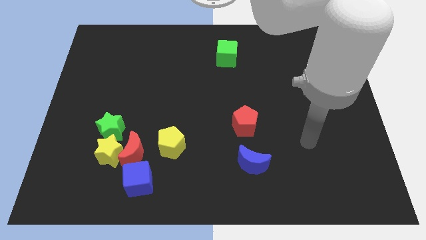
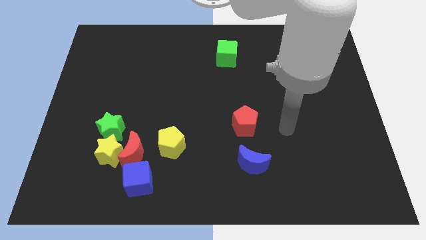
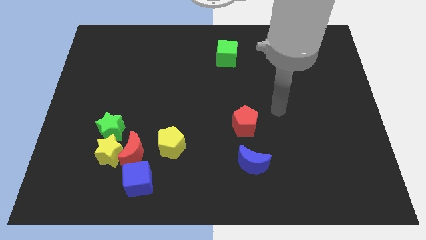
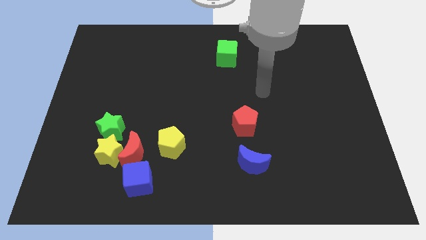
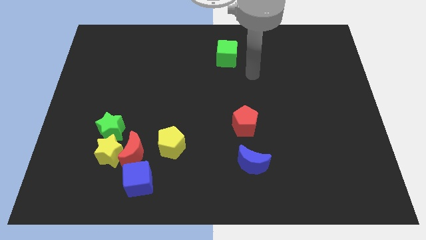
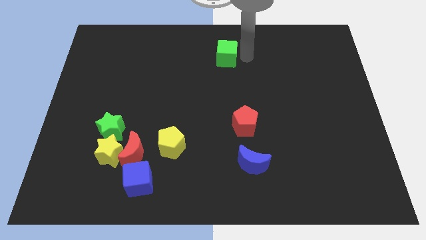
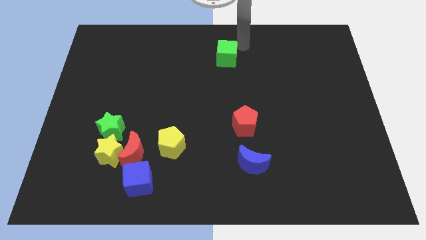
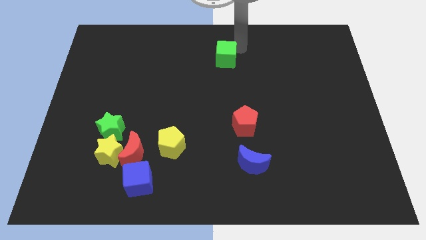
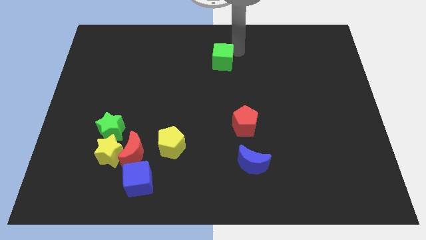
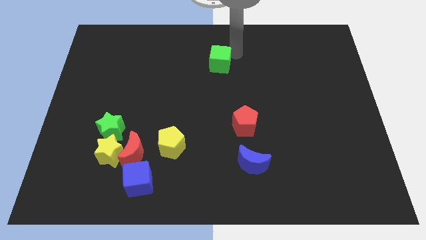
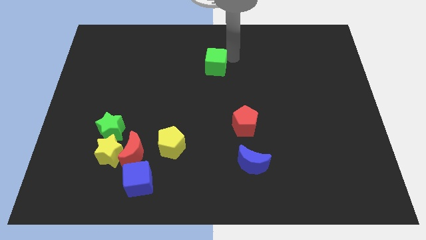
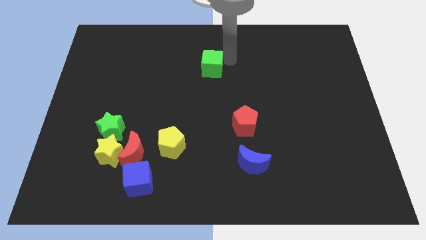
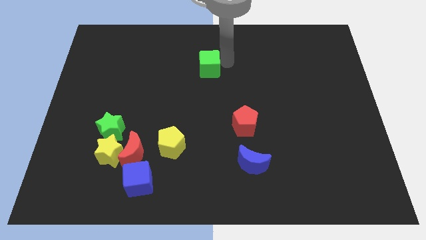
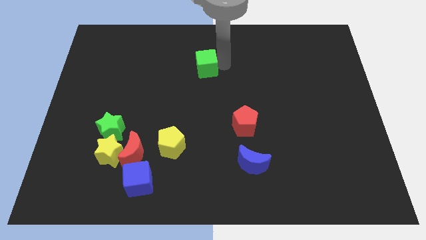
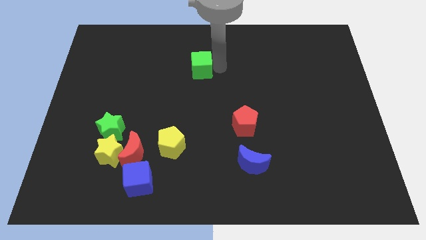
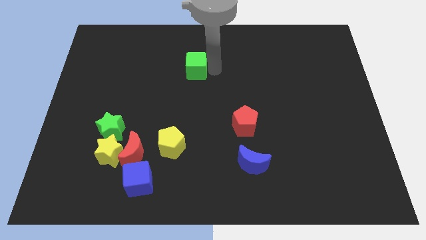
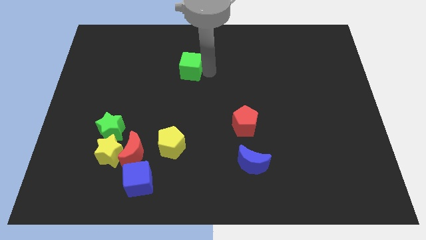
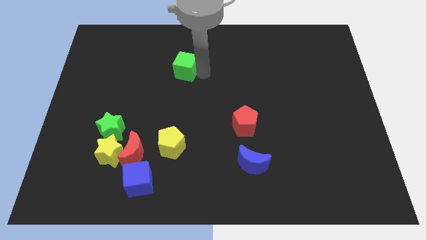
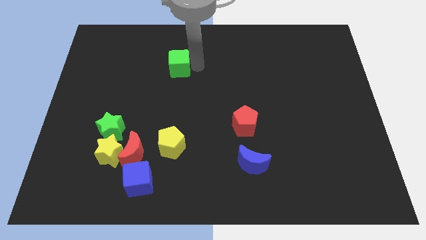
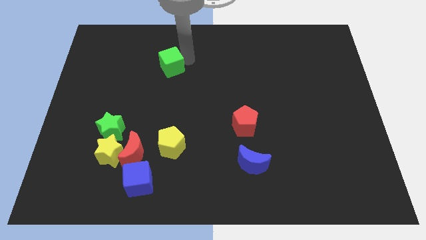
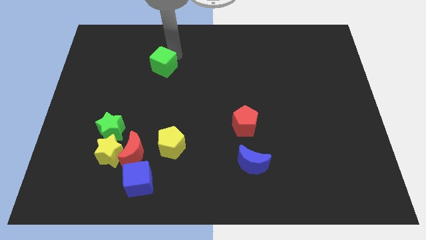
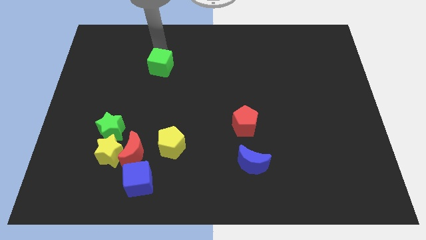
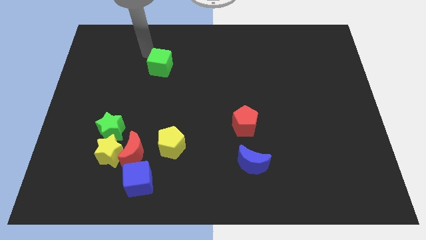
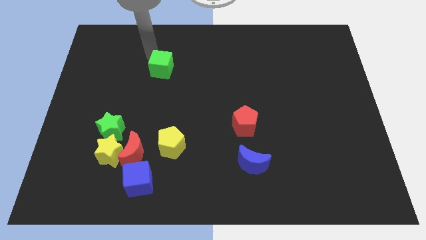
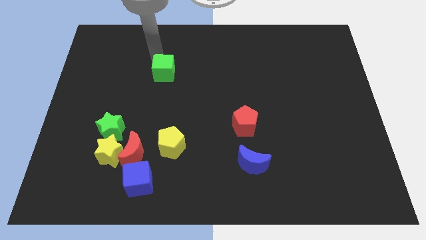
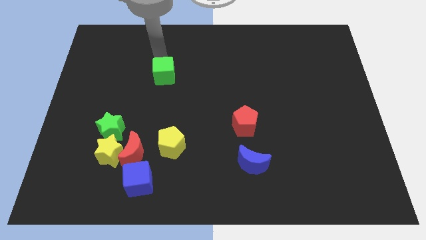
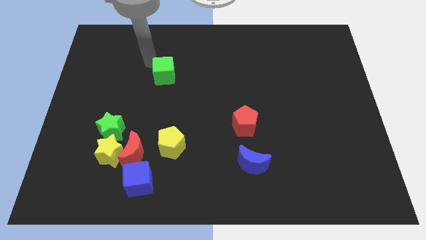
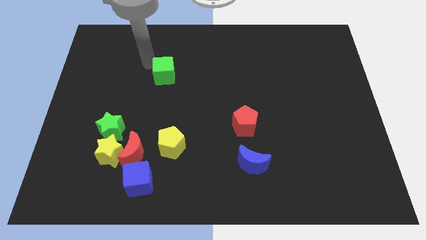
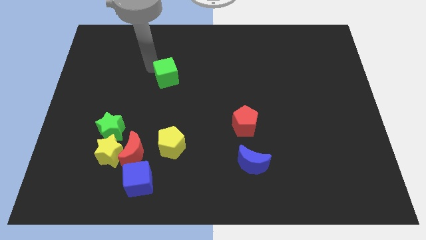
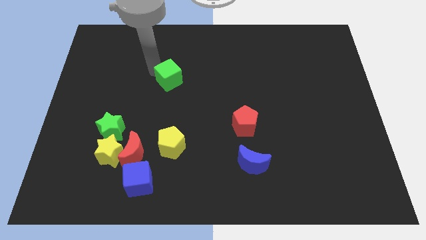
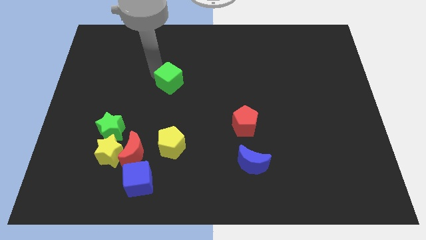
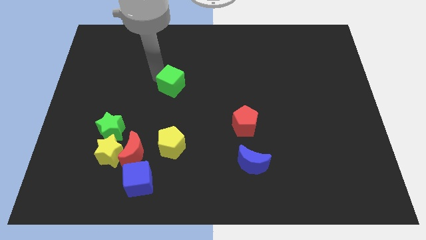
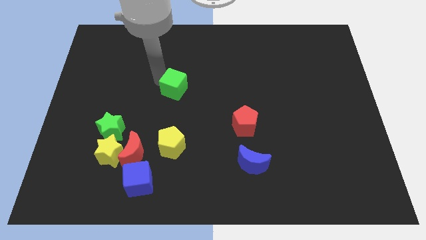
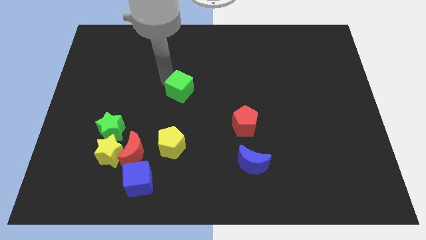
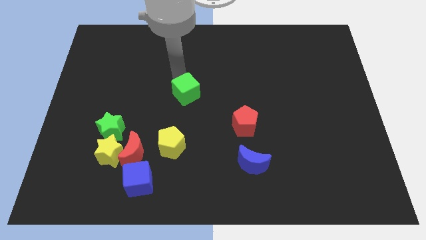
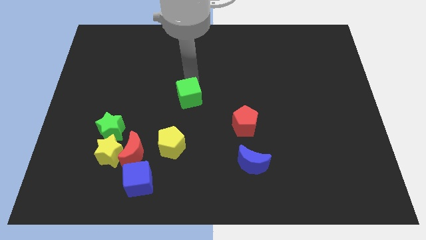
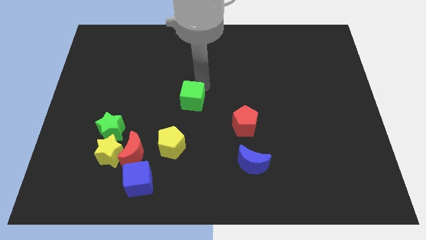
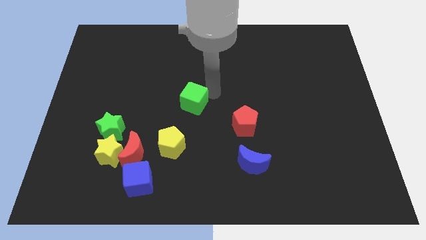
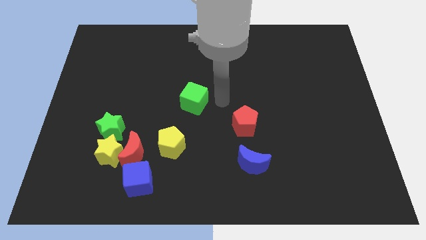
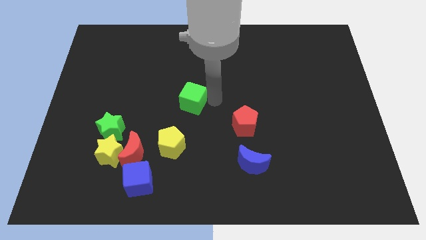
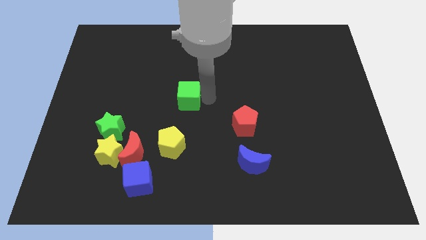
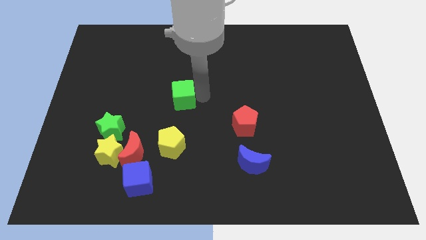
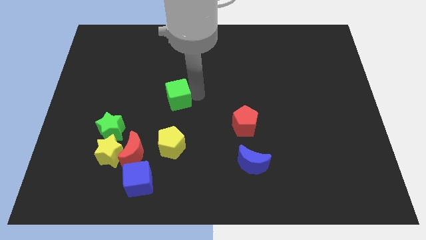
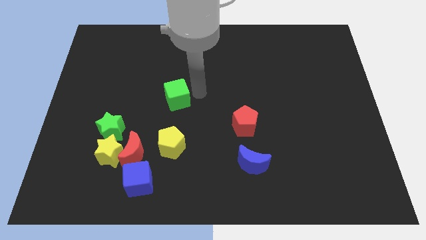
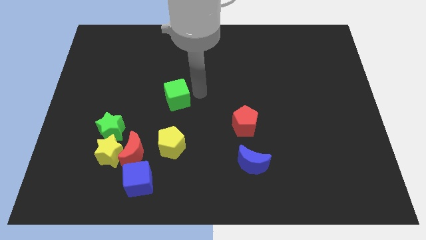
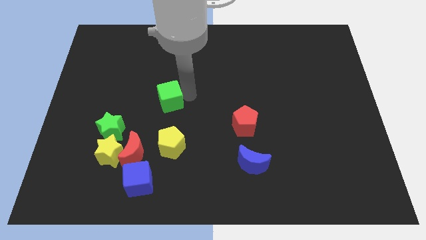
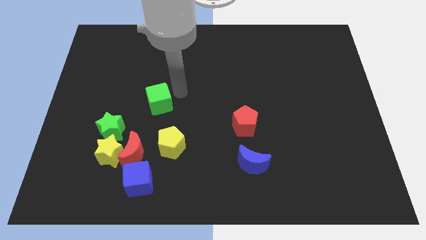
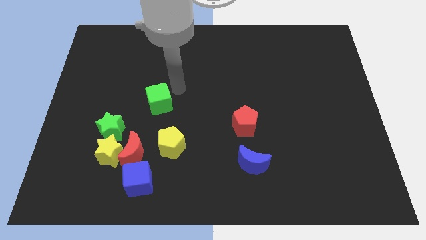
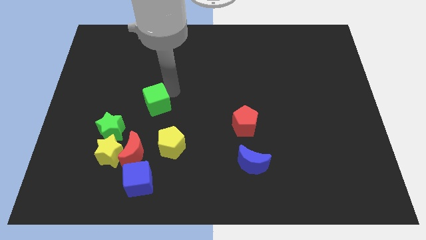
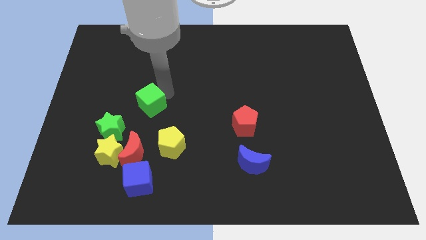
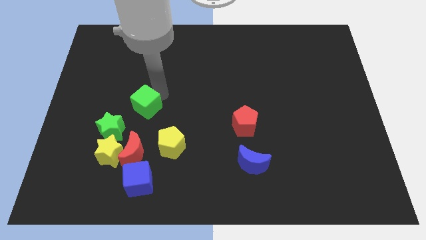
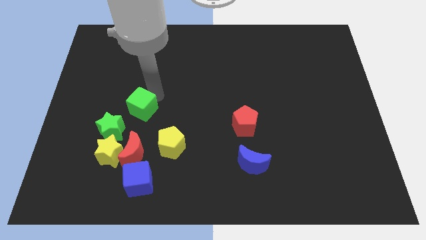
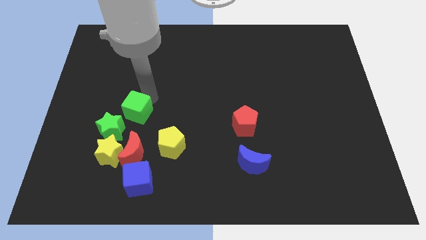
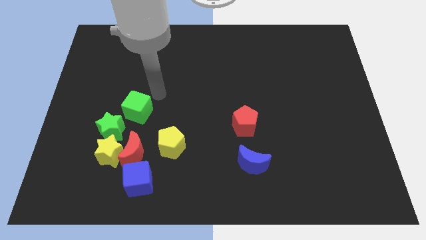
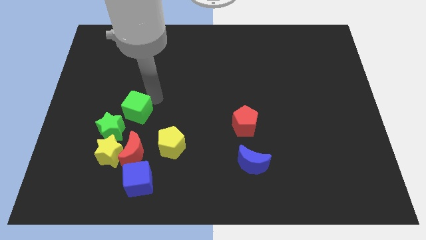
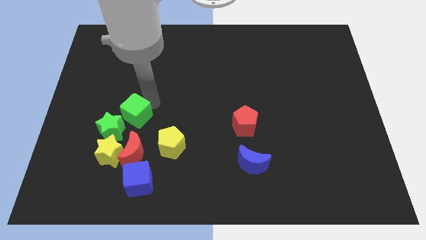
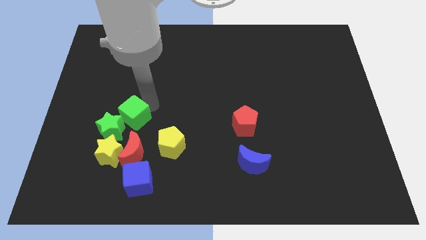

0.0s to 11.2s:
put the green cube towards the green star

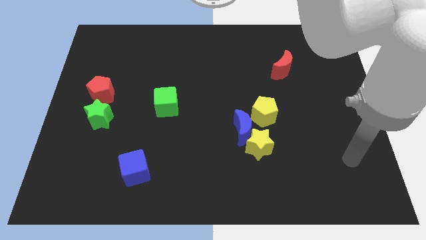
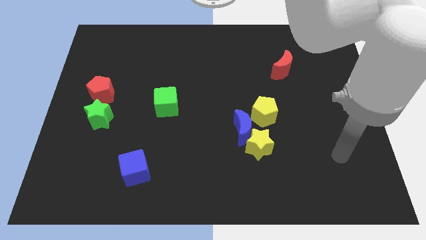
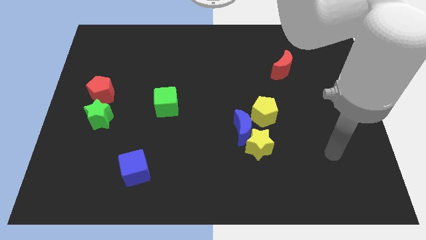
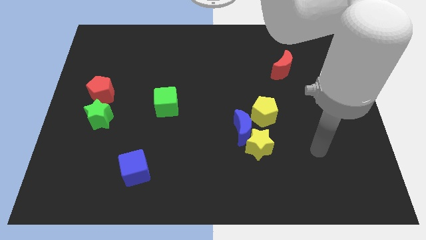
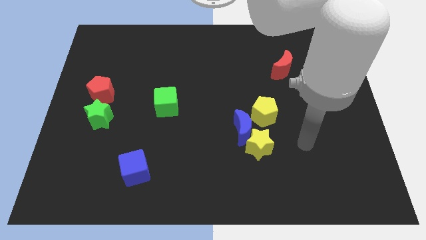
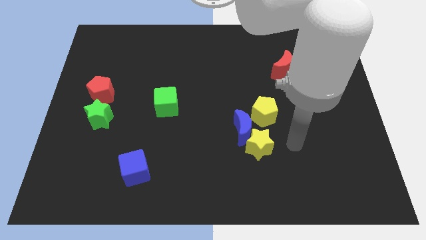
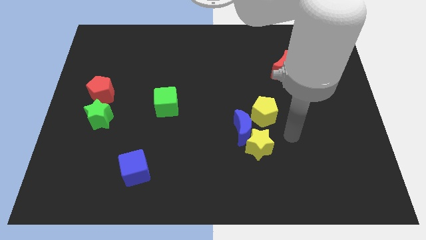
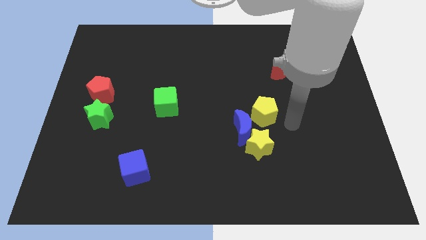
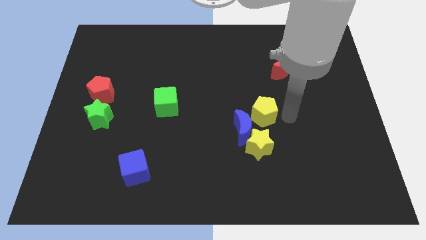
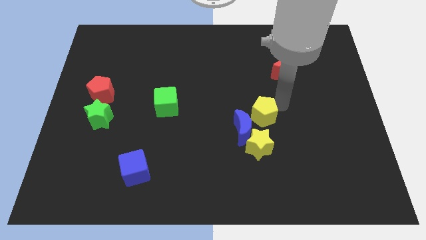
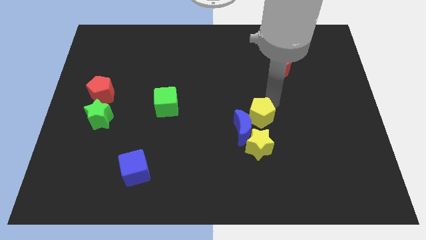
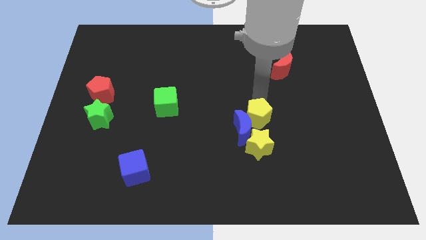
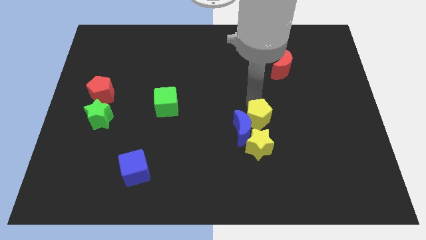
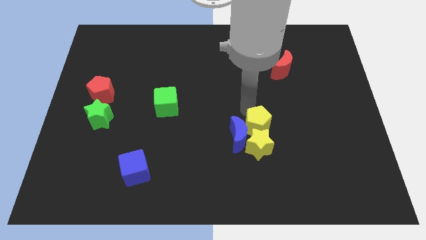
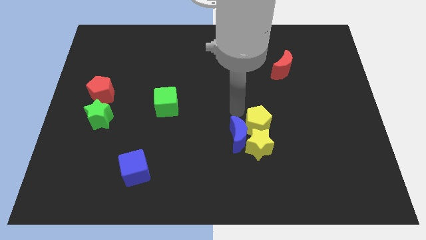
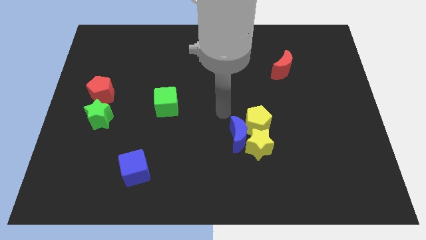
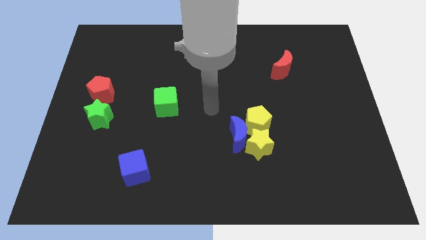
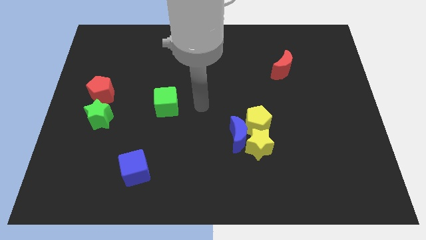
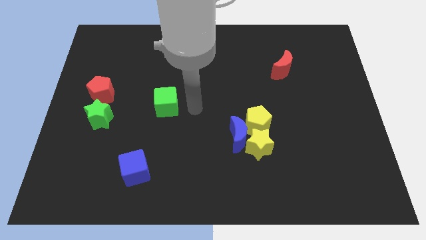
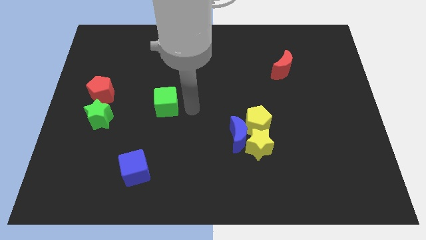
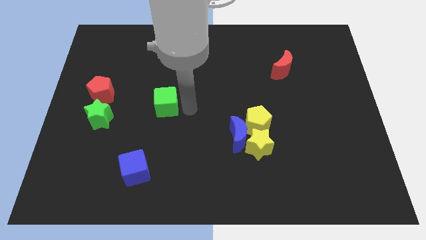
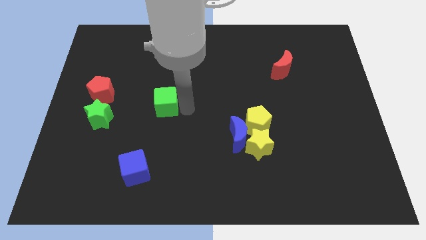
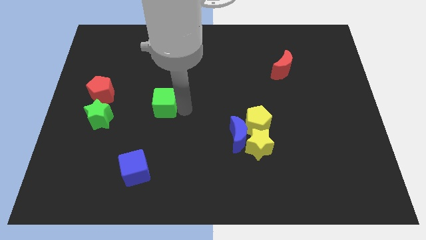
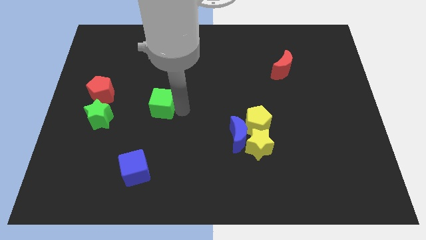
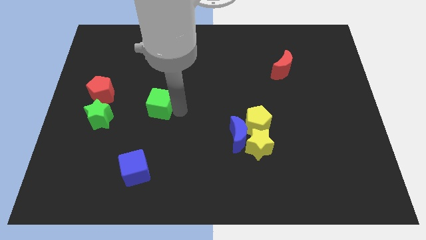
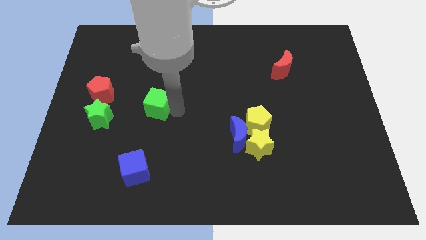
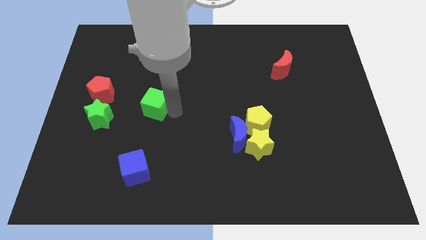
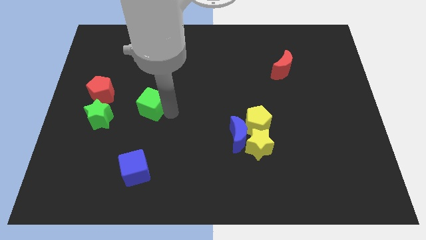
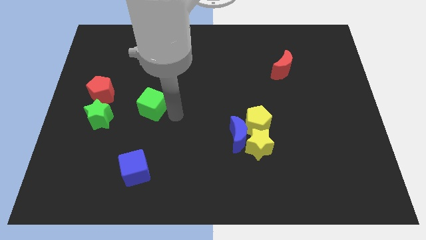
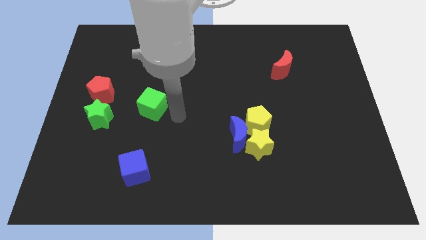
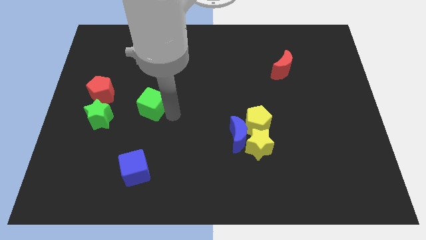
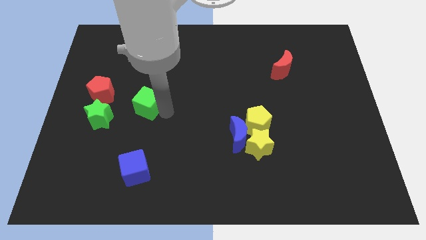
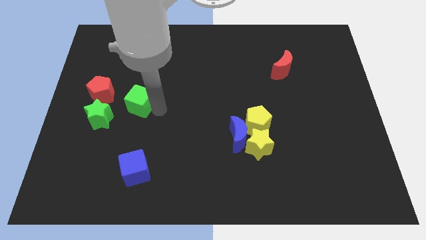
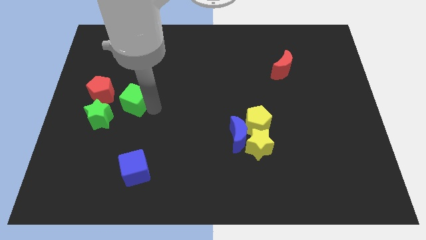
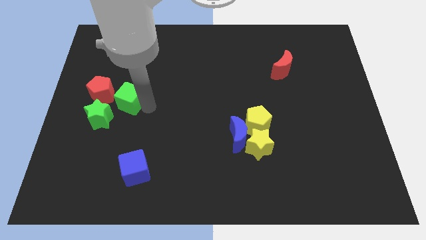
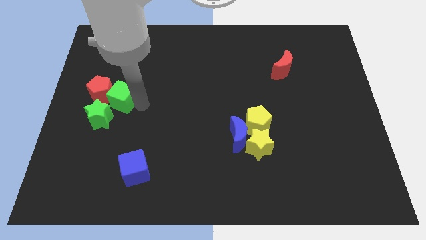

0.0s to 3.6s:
slide the green cube towards the red pentagon
